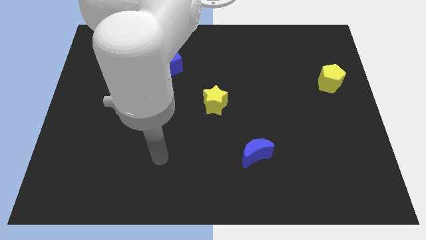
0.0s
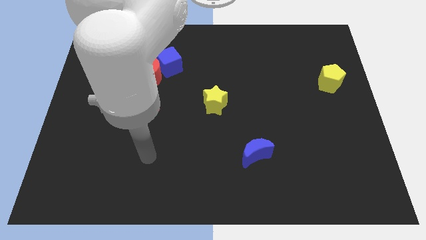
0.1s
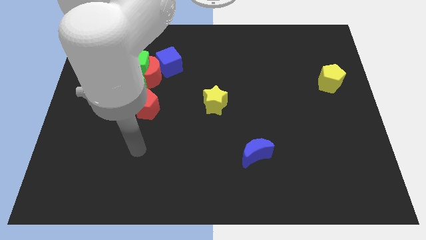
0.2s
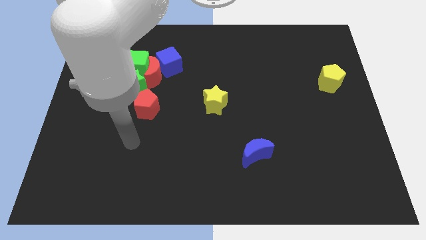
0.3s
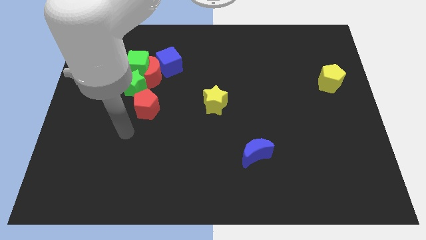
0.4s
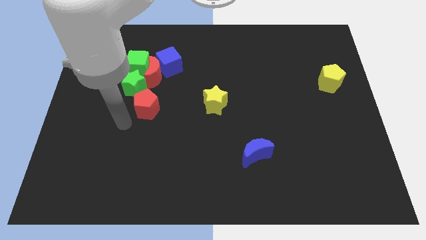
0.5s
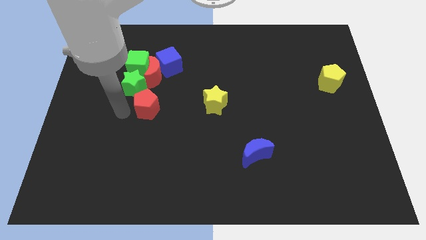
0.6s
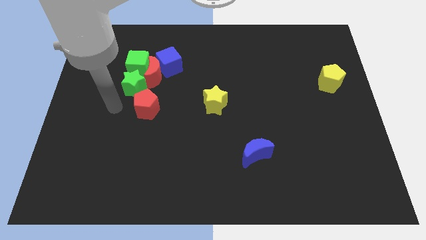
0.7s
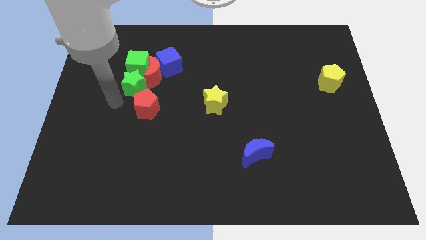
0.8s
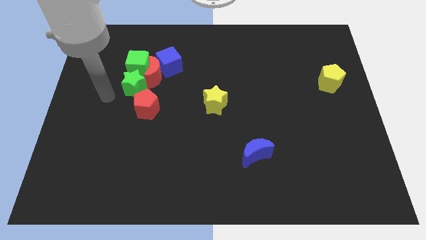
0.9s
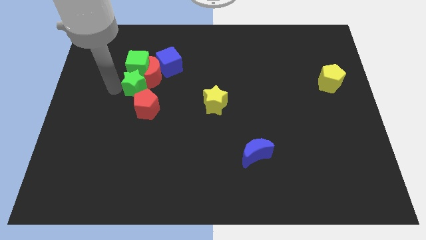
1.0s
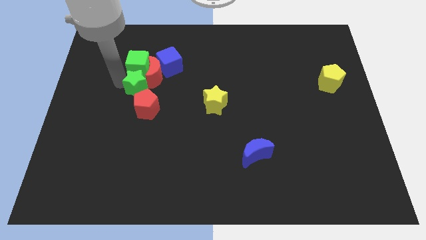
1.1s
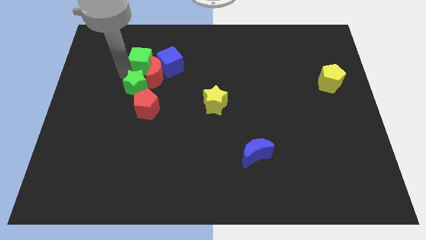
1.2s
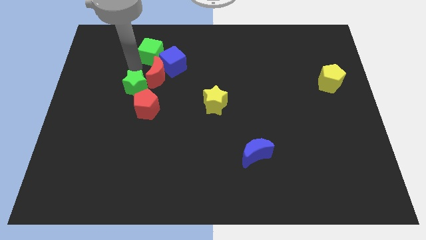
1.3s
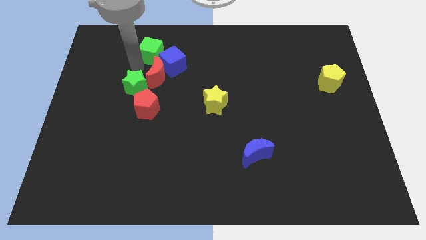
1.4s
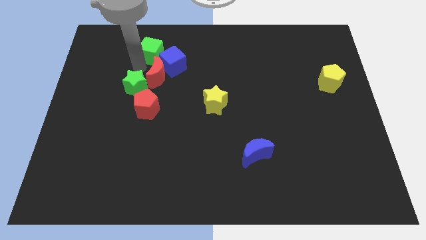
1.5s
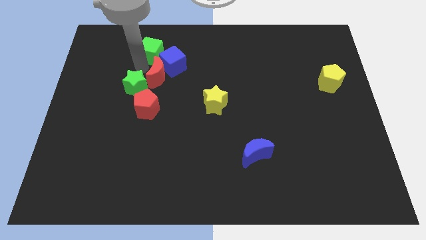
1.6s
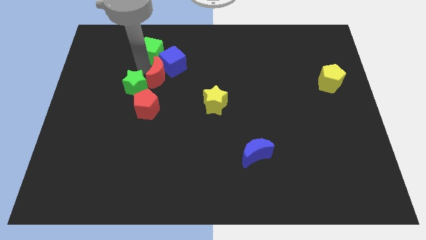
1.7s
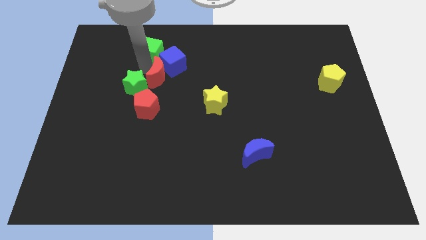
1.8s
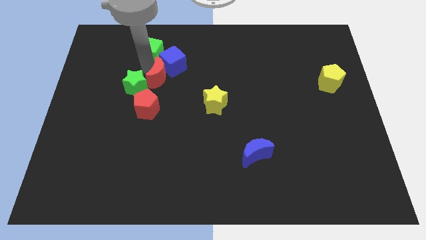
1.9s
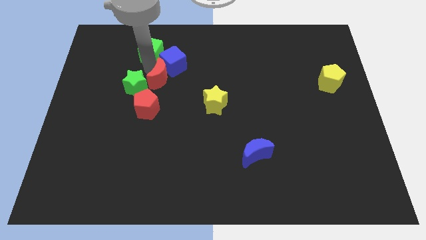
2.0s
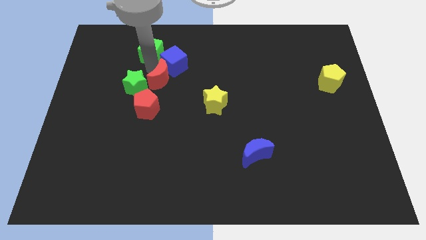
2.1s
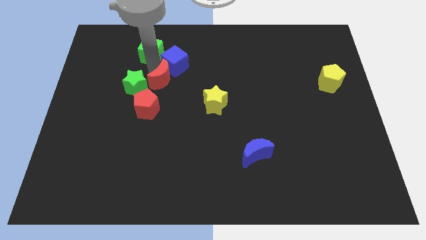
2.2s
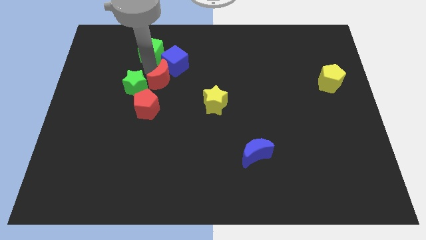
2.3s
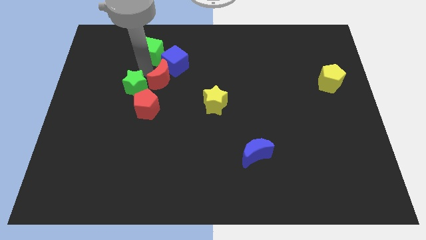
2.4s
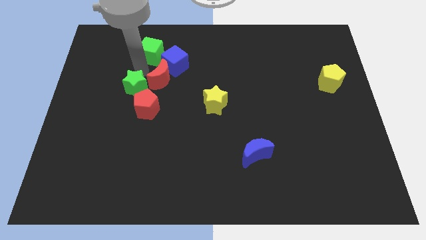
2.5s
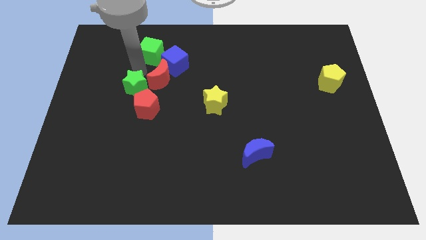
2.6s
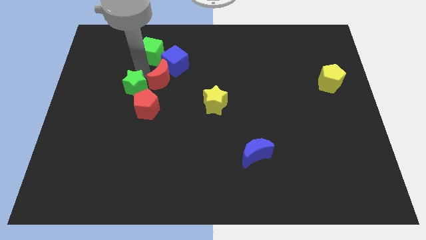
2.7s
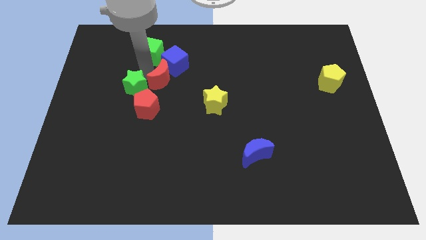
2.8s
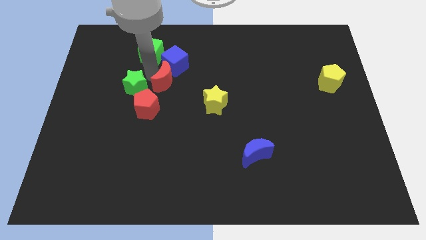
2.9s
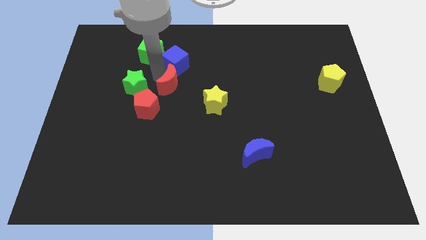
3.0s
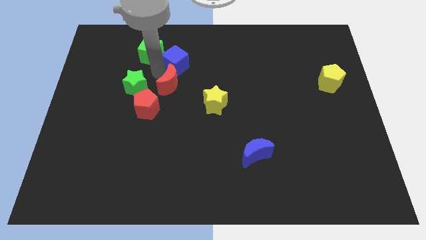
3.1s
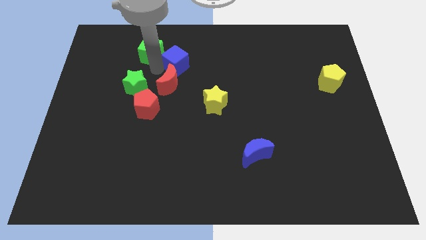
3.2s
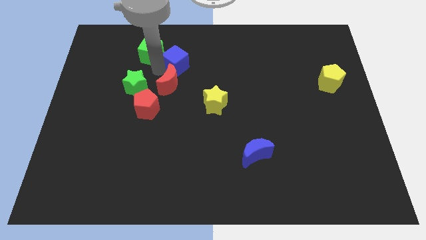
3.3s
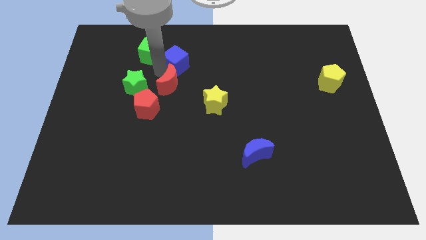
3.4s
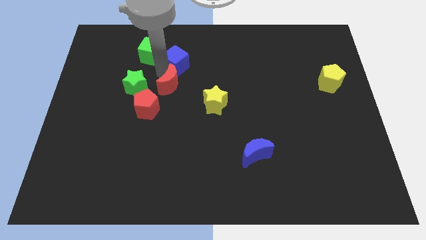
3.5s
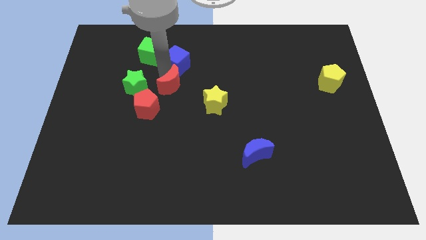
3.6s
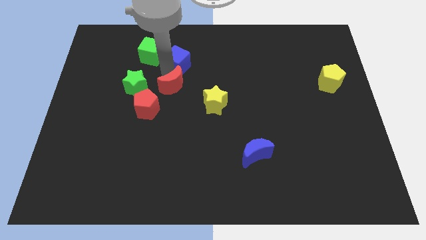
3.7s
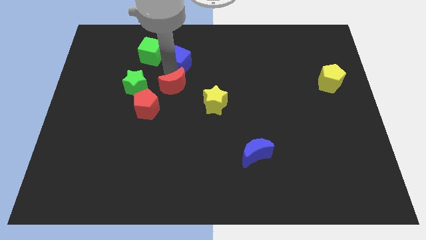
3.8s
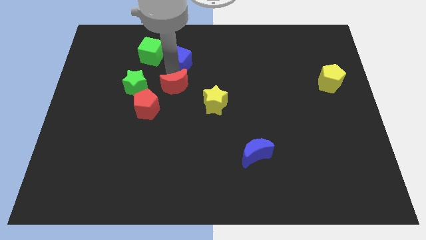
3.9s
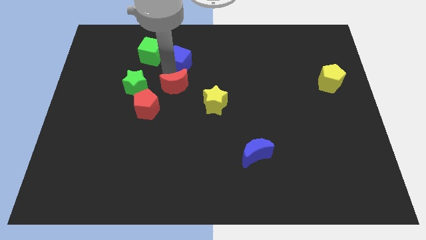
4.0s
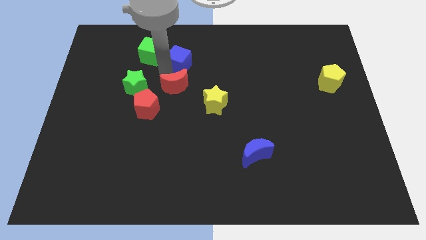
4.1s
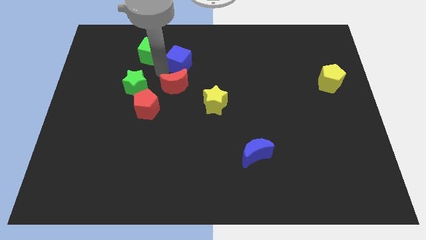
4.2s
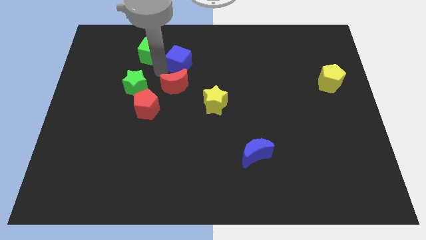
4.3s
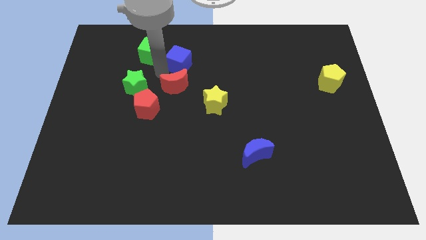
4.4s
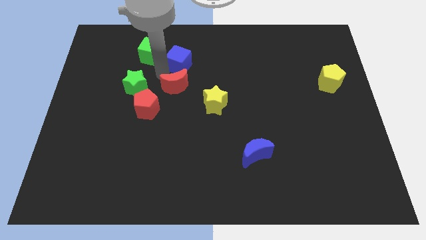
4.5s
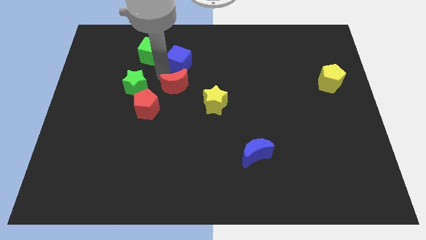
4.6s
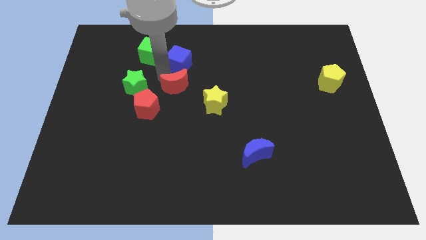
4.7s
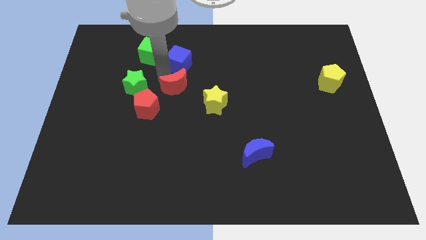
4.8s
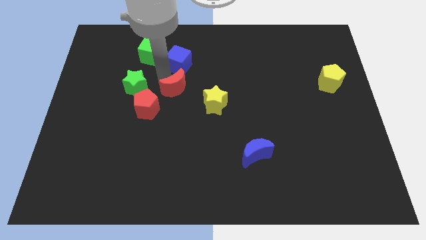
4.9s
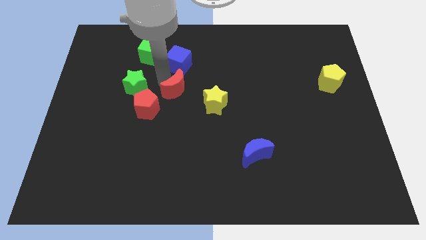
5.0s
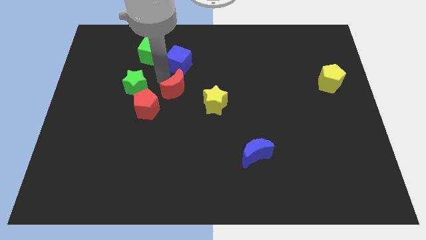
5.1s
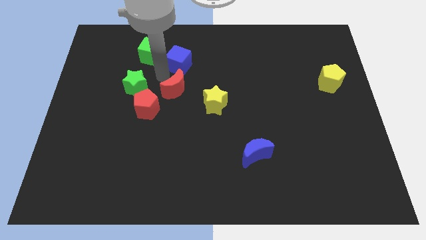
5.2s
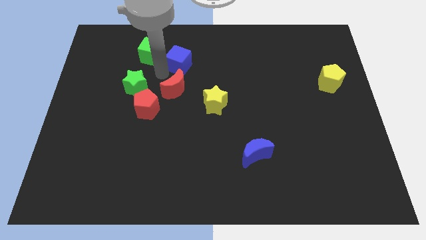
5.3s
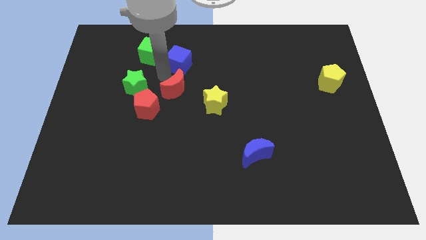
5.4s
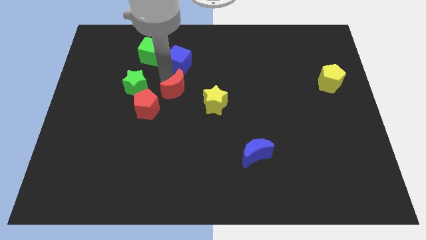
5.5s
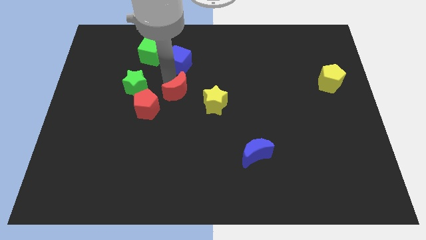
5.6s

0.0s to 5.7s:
separate the red moon from the blue cube, green cube, and green star

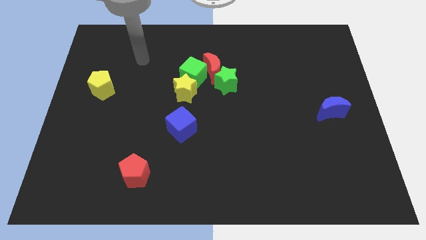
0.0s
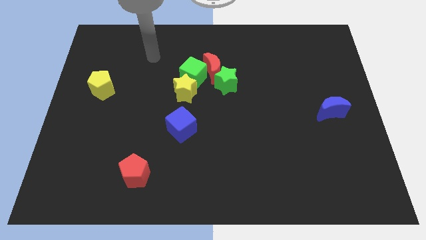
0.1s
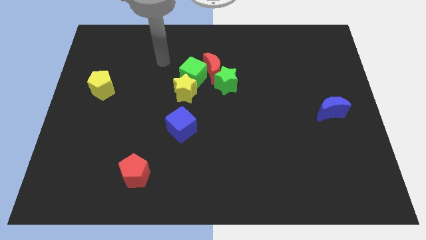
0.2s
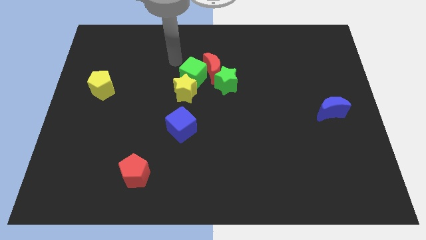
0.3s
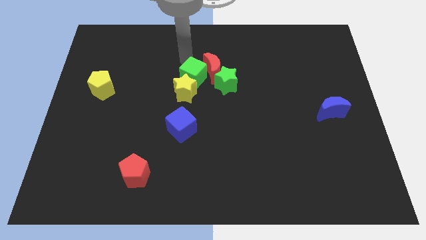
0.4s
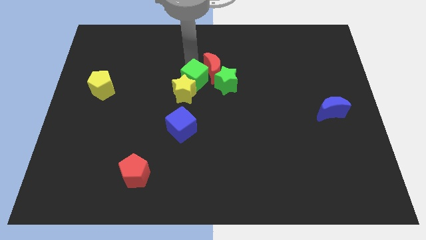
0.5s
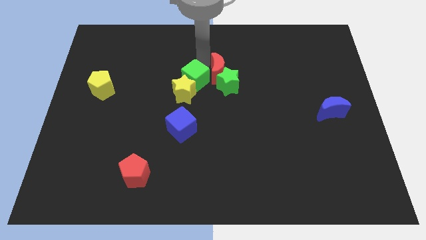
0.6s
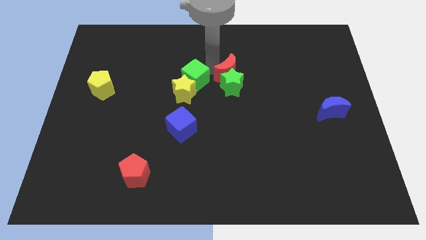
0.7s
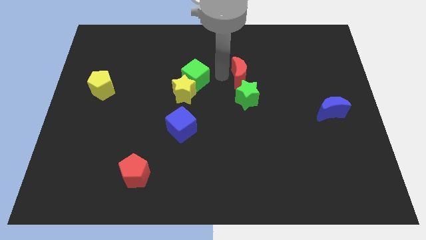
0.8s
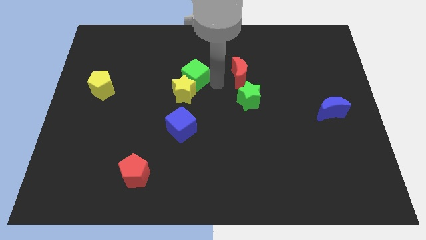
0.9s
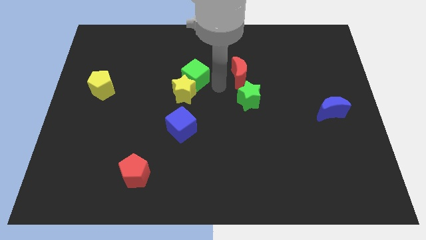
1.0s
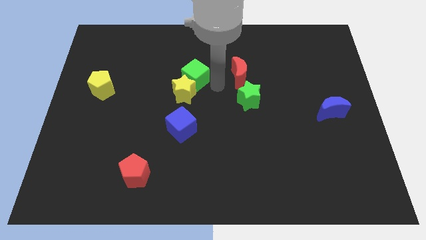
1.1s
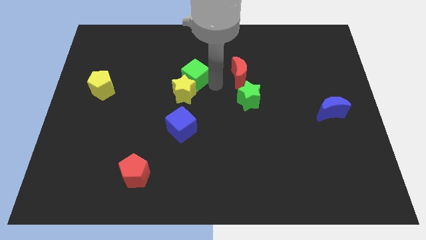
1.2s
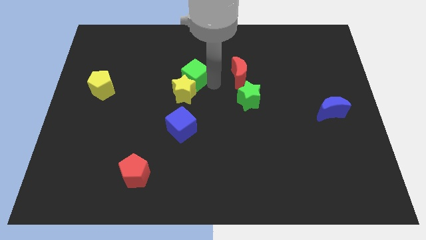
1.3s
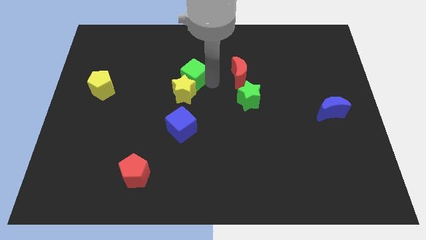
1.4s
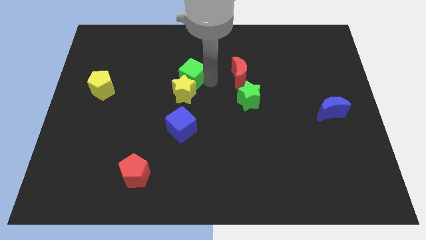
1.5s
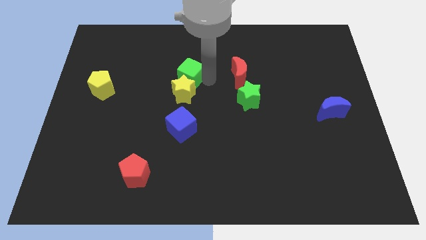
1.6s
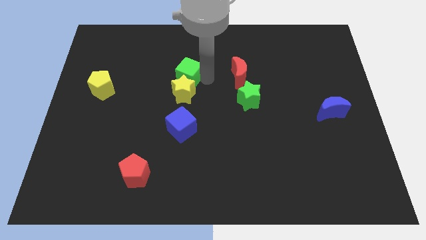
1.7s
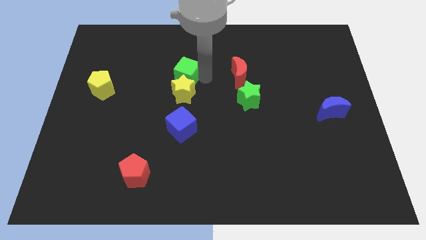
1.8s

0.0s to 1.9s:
move the green cube away from the red moon, yellow star, and green star

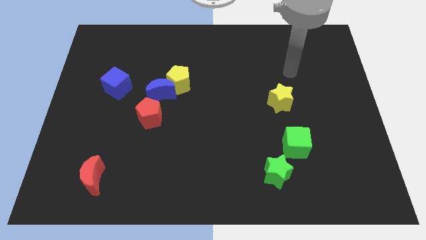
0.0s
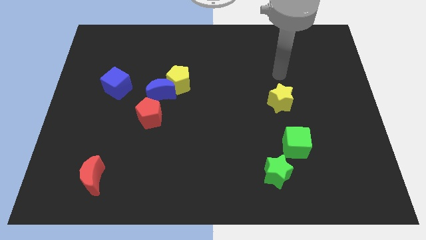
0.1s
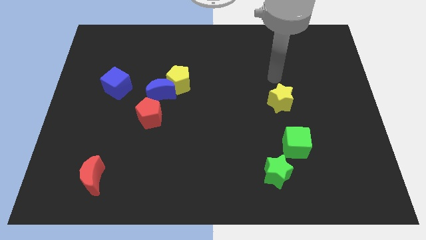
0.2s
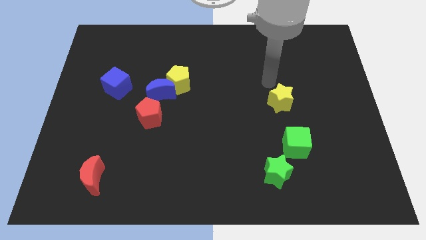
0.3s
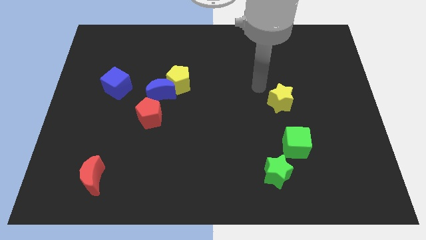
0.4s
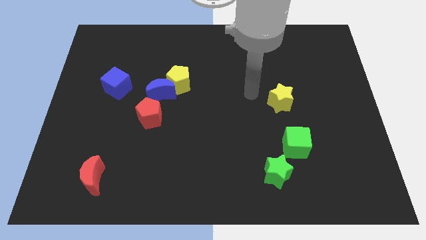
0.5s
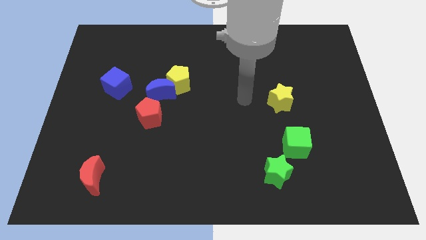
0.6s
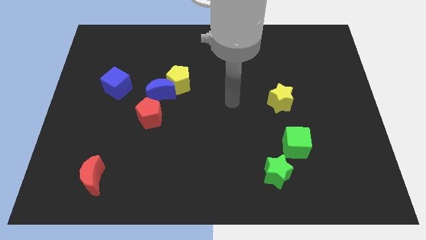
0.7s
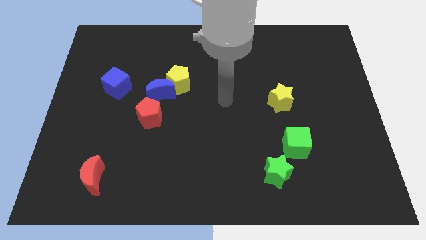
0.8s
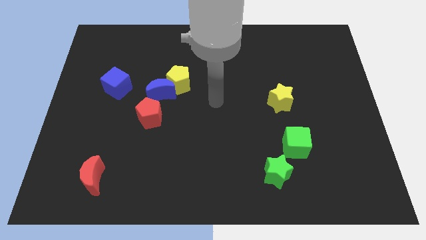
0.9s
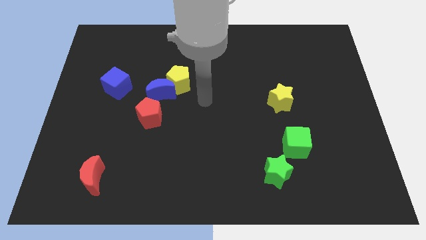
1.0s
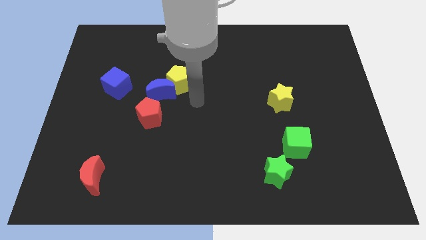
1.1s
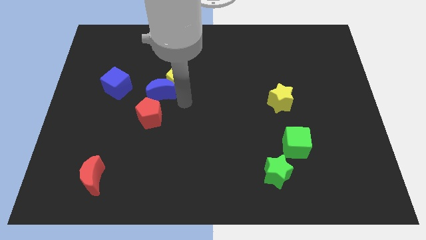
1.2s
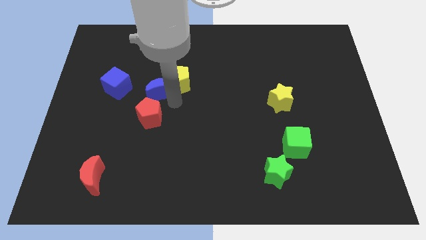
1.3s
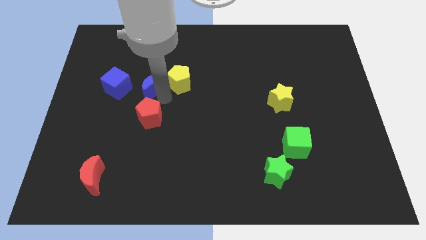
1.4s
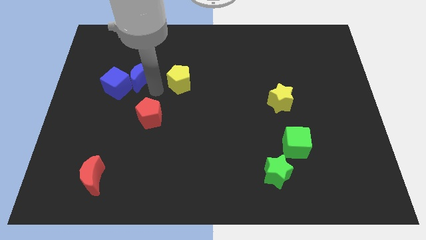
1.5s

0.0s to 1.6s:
separate the yellow pentagon from the blue moon

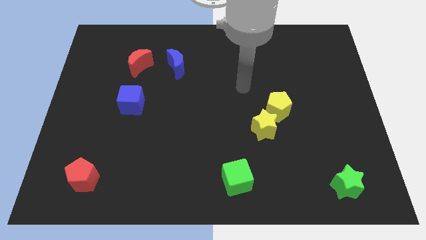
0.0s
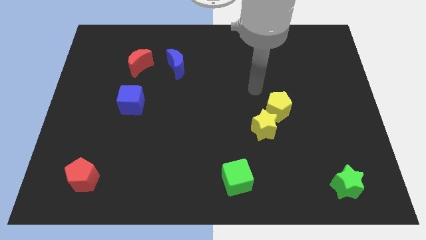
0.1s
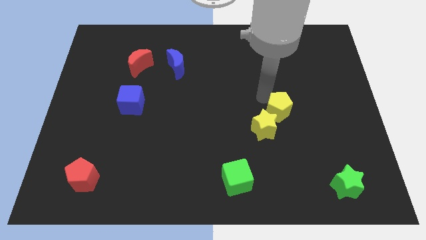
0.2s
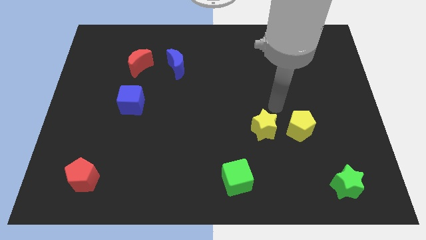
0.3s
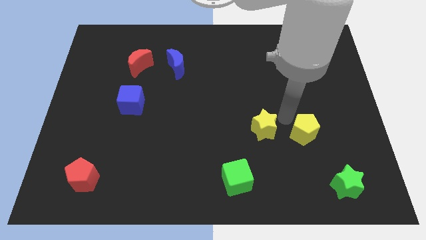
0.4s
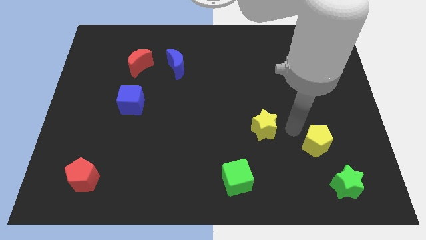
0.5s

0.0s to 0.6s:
separate the yellow star from the yellow pentagon
